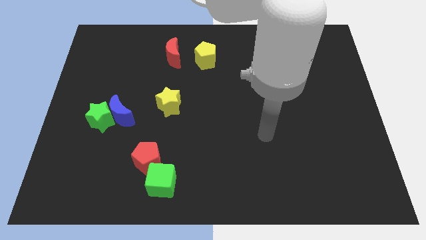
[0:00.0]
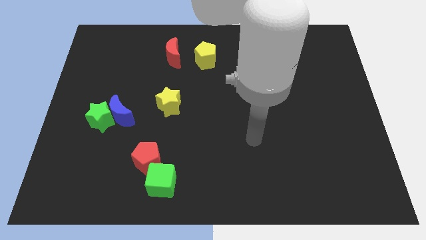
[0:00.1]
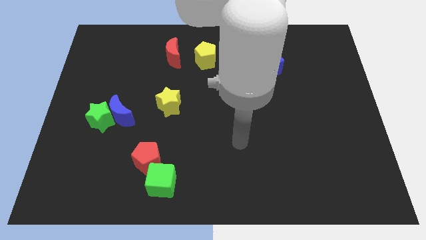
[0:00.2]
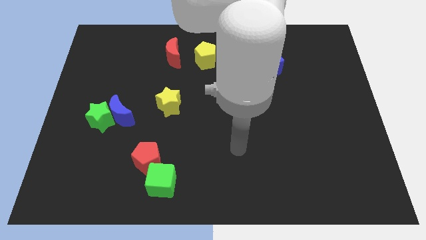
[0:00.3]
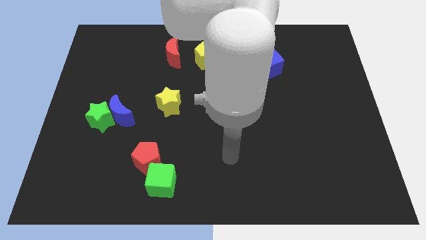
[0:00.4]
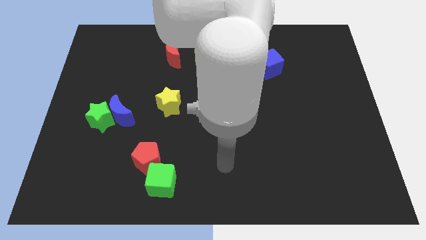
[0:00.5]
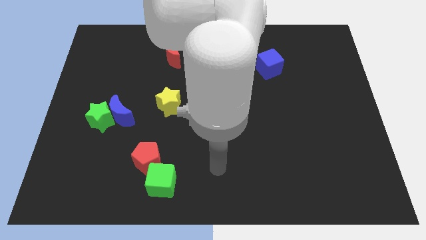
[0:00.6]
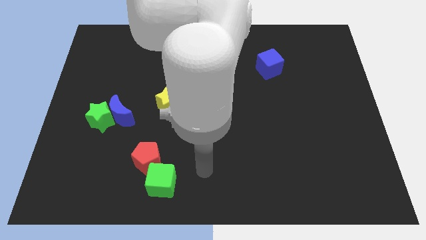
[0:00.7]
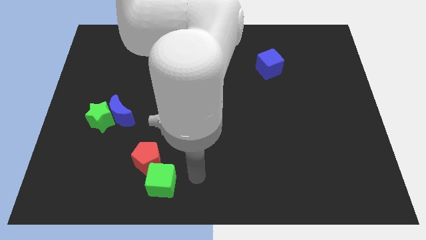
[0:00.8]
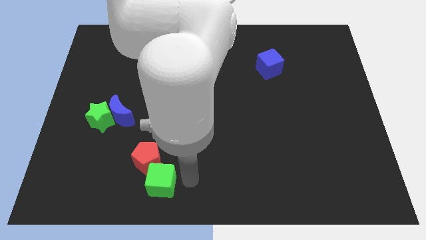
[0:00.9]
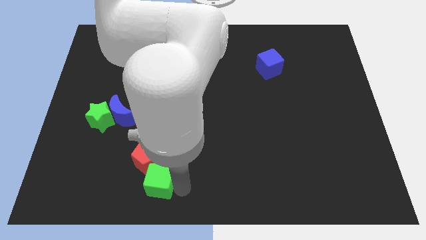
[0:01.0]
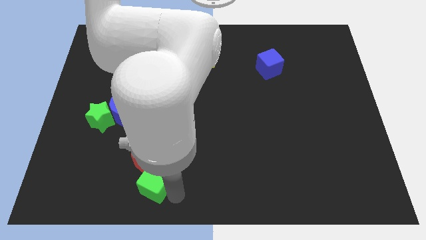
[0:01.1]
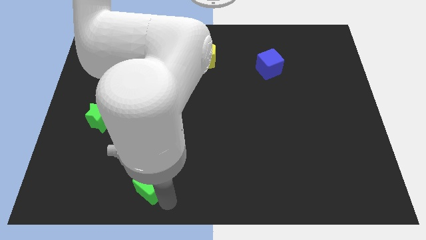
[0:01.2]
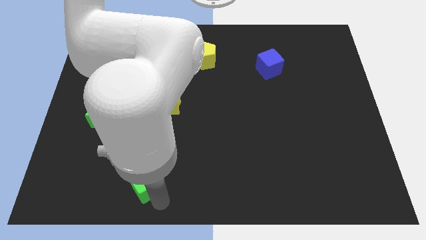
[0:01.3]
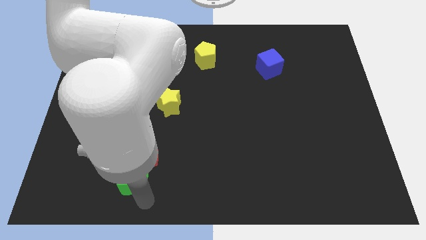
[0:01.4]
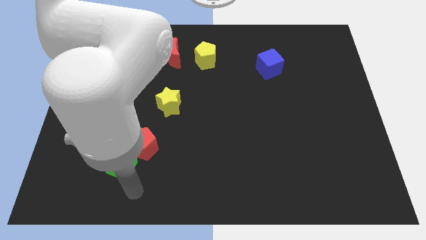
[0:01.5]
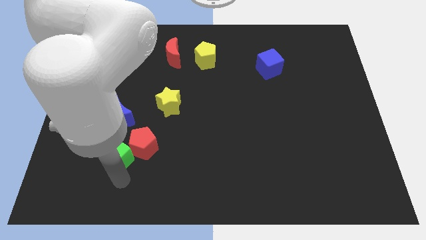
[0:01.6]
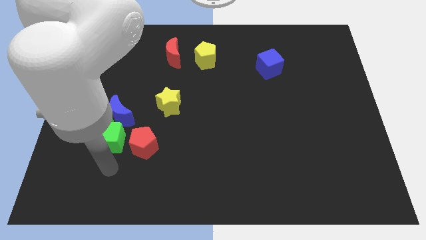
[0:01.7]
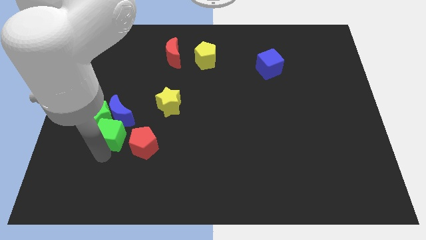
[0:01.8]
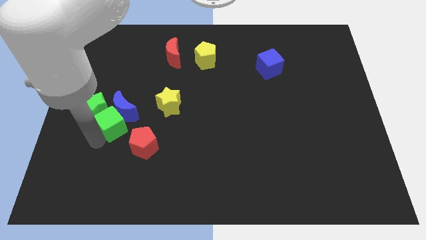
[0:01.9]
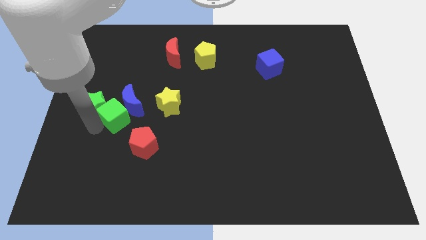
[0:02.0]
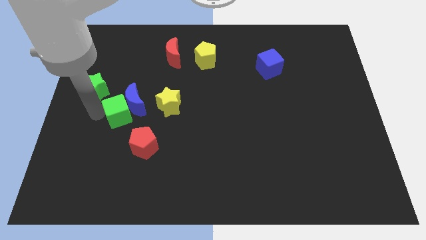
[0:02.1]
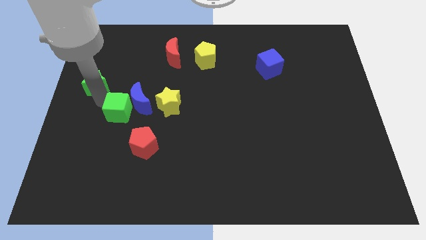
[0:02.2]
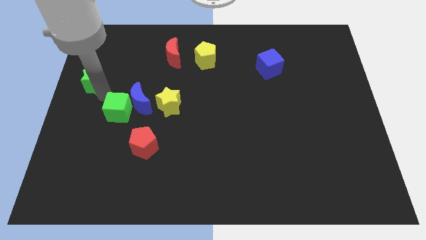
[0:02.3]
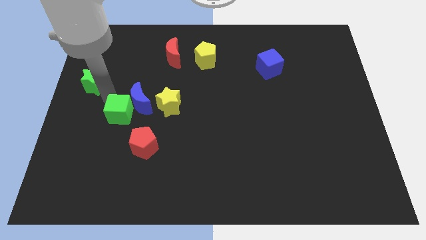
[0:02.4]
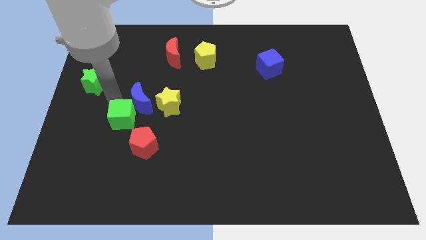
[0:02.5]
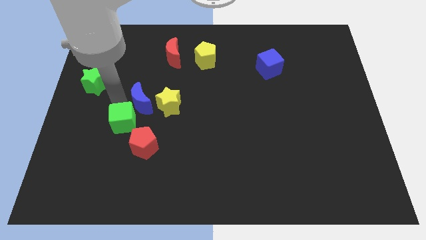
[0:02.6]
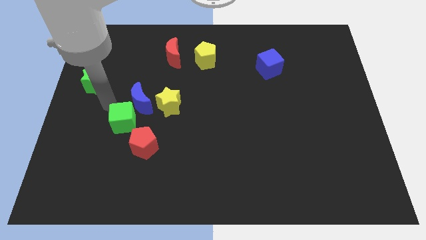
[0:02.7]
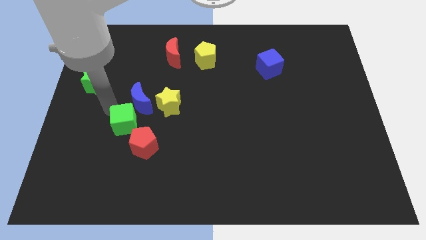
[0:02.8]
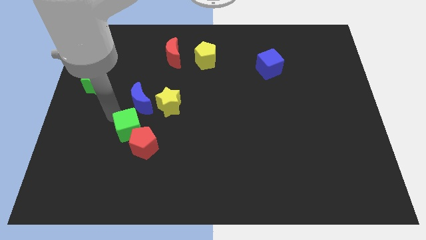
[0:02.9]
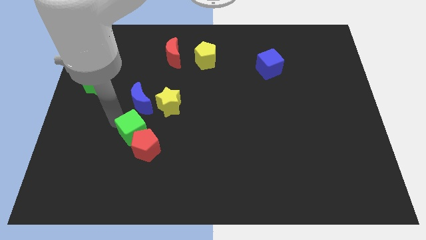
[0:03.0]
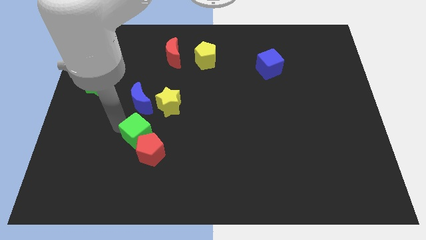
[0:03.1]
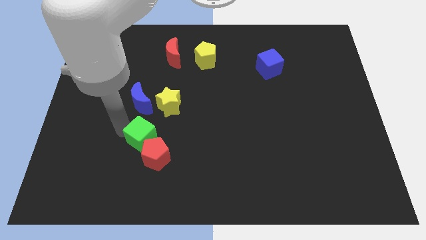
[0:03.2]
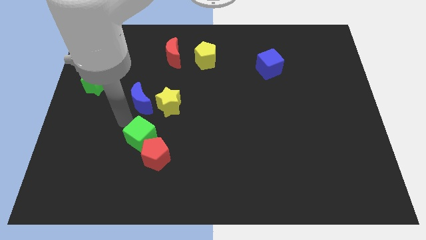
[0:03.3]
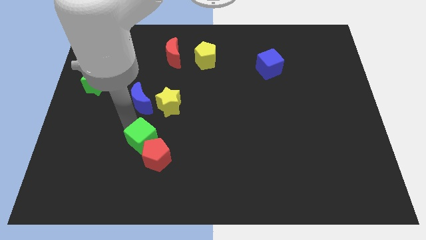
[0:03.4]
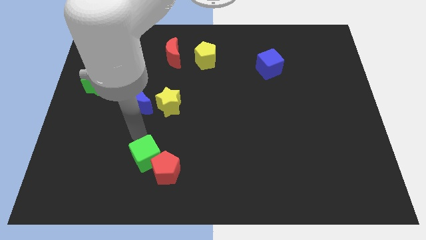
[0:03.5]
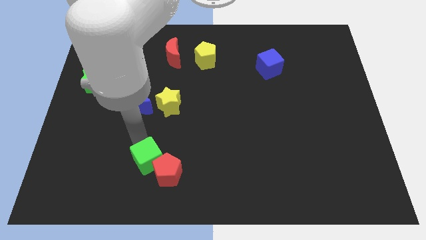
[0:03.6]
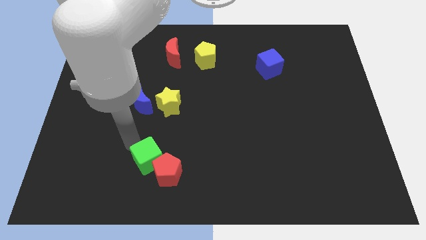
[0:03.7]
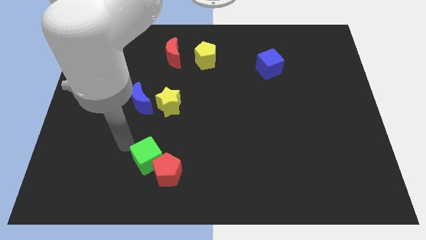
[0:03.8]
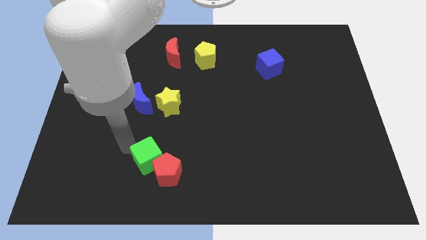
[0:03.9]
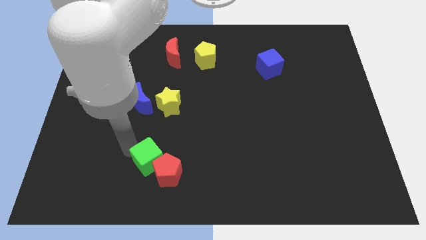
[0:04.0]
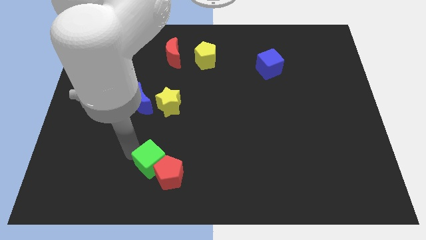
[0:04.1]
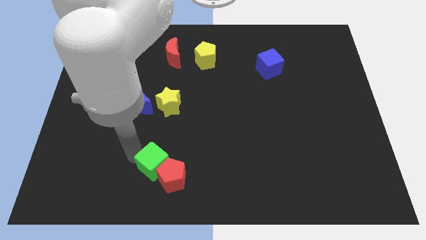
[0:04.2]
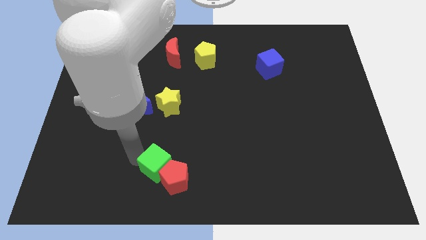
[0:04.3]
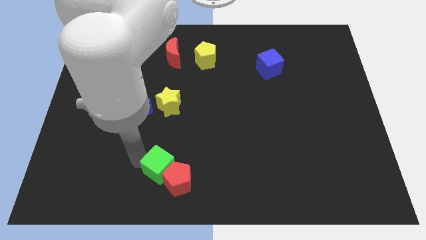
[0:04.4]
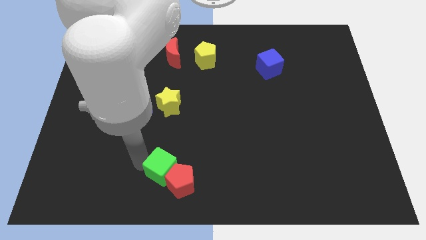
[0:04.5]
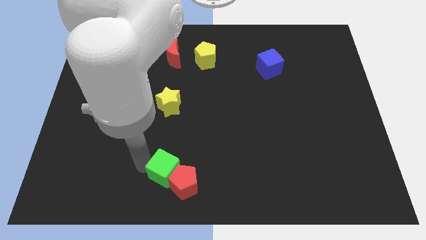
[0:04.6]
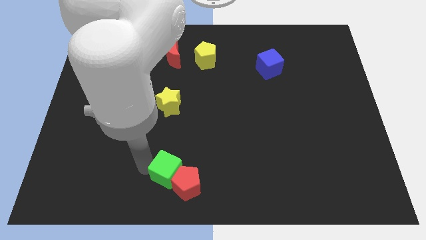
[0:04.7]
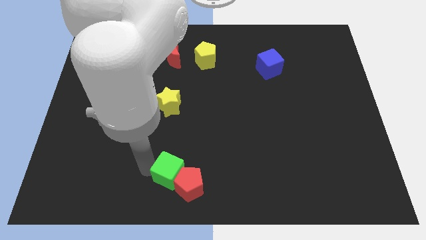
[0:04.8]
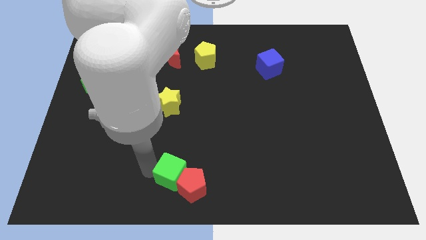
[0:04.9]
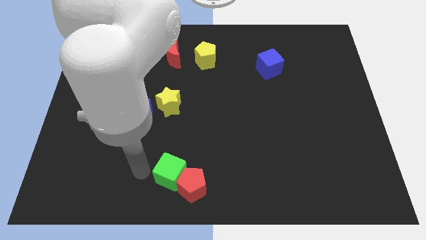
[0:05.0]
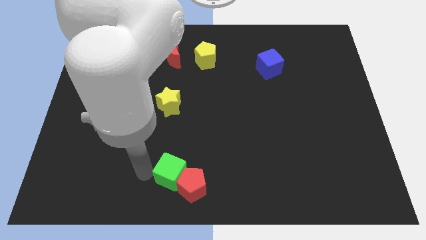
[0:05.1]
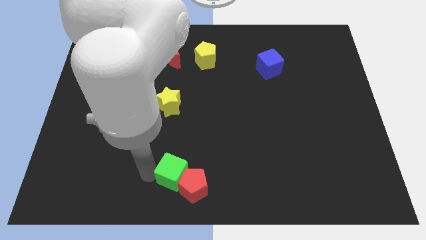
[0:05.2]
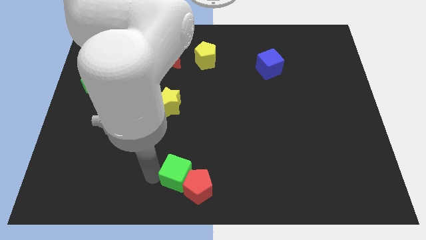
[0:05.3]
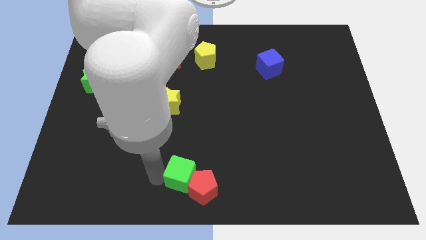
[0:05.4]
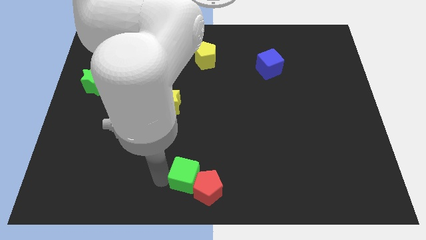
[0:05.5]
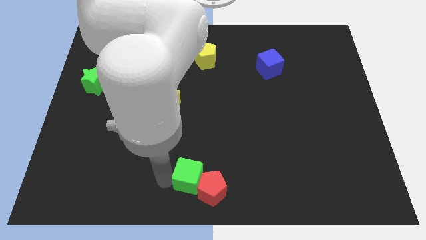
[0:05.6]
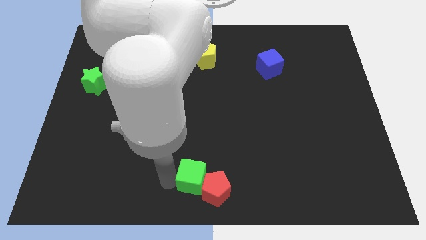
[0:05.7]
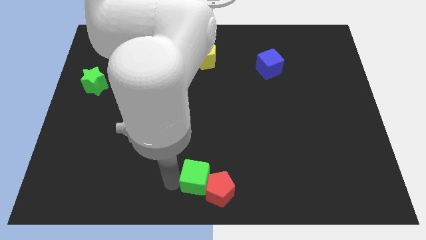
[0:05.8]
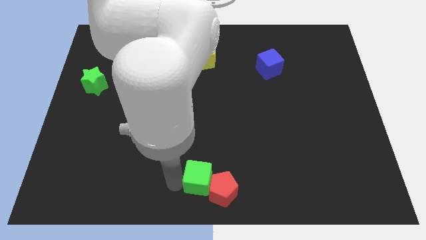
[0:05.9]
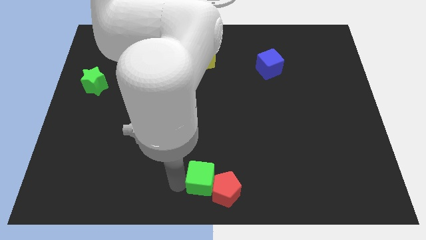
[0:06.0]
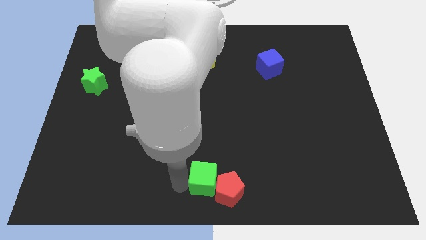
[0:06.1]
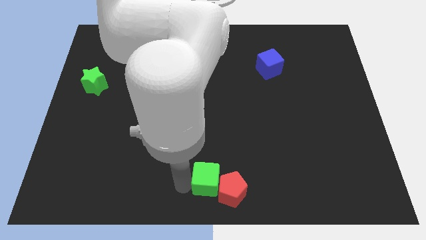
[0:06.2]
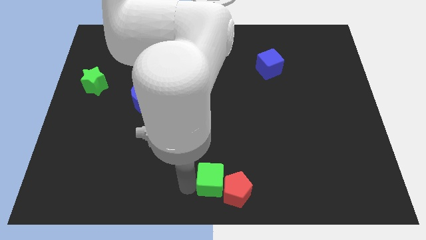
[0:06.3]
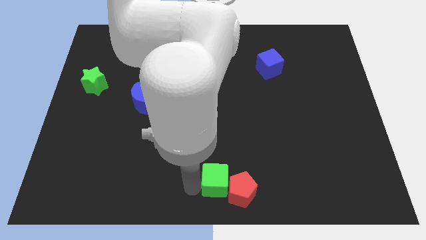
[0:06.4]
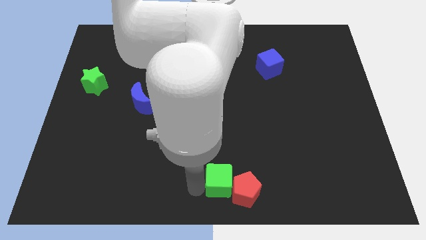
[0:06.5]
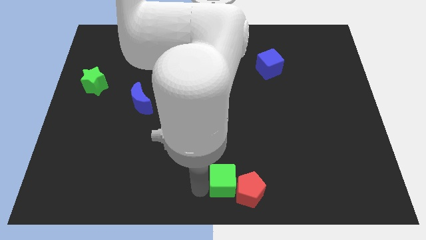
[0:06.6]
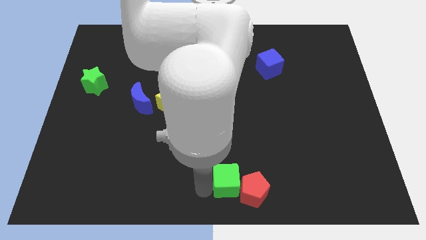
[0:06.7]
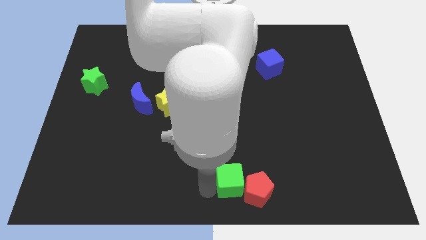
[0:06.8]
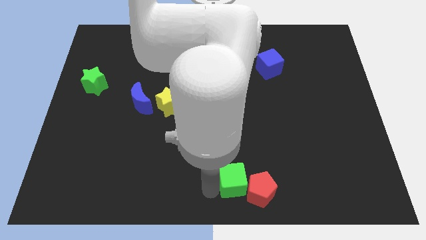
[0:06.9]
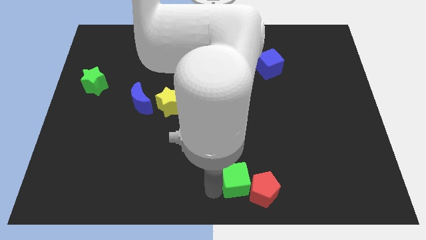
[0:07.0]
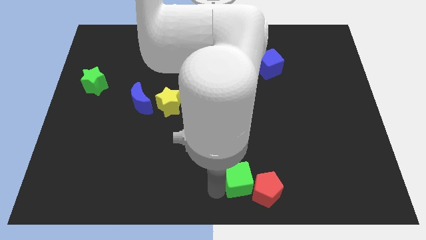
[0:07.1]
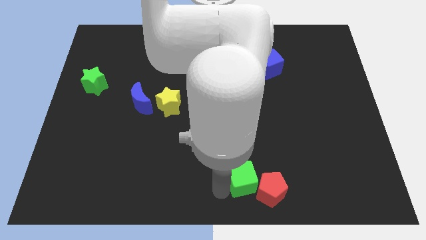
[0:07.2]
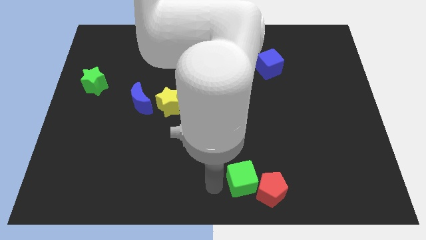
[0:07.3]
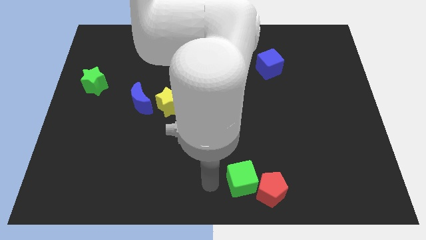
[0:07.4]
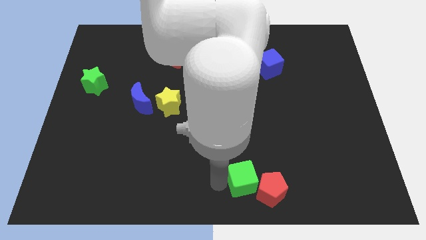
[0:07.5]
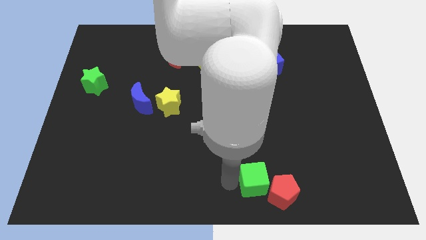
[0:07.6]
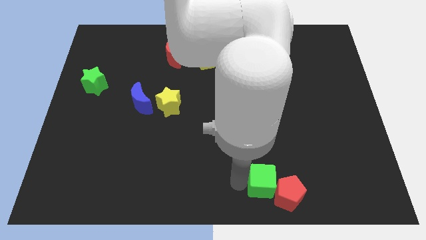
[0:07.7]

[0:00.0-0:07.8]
push the green cube to the right
